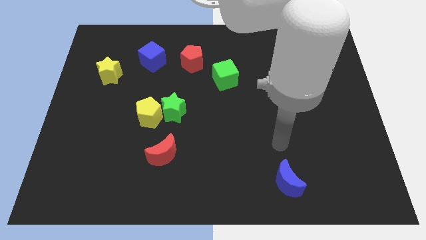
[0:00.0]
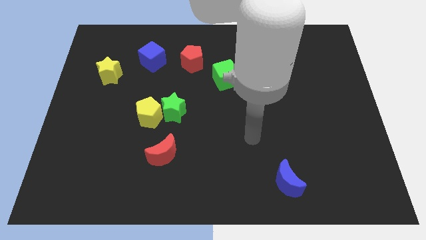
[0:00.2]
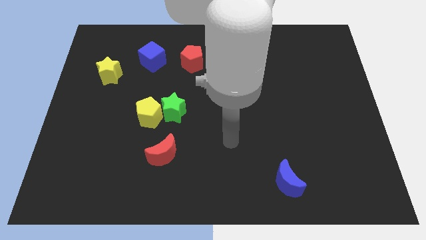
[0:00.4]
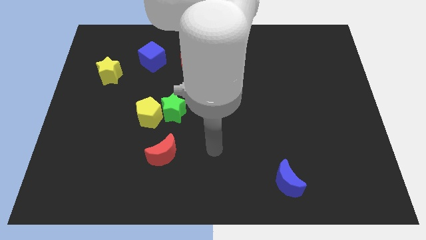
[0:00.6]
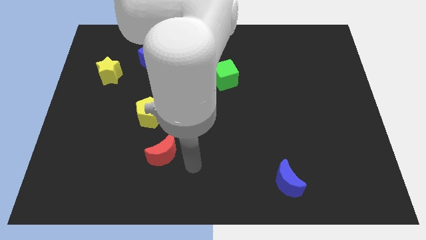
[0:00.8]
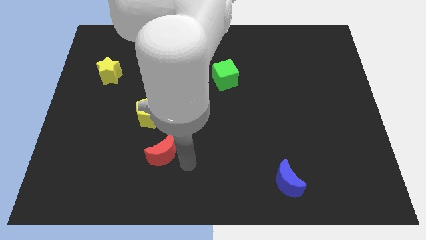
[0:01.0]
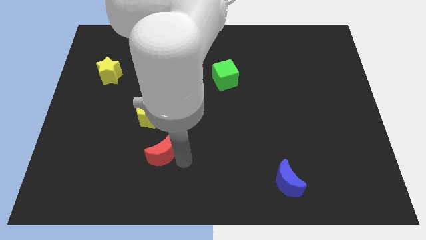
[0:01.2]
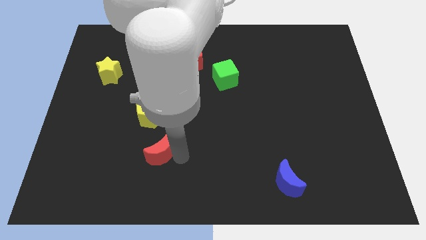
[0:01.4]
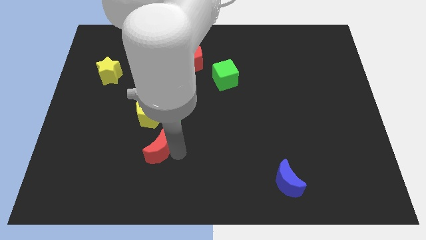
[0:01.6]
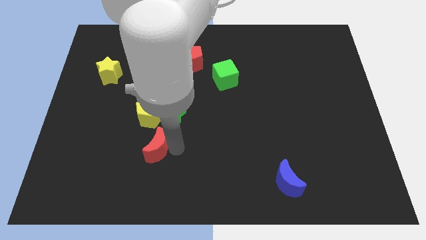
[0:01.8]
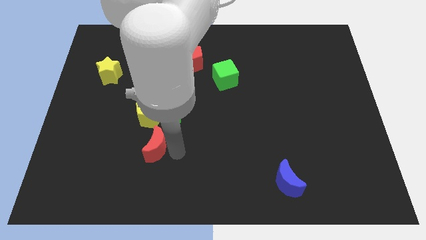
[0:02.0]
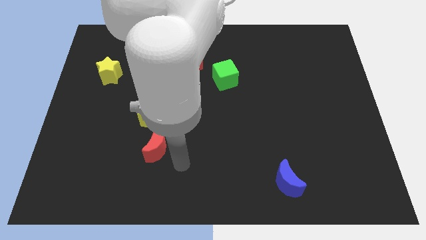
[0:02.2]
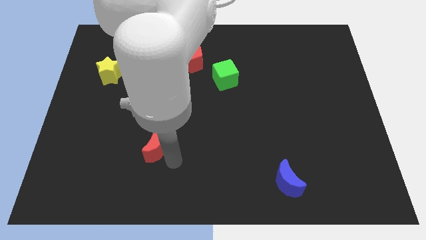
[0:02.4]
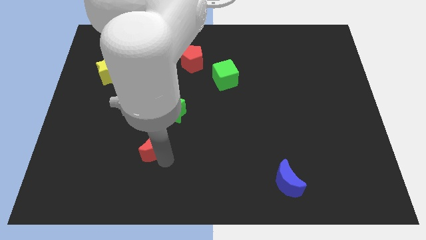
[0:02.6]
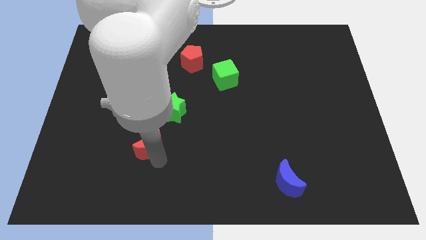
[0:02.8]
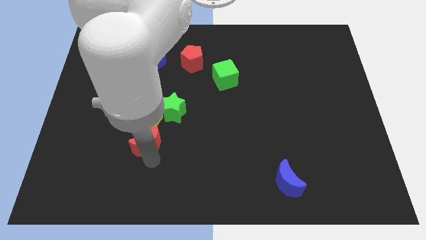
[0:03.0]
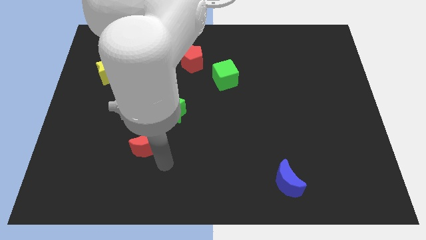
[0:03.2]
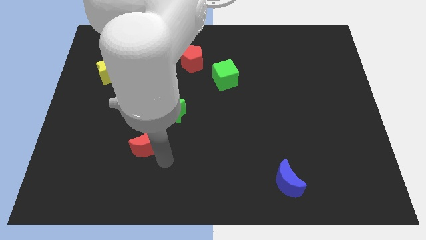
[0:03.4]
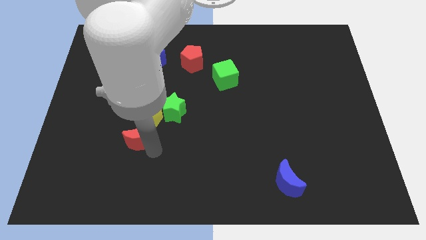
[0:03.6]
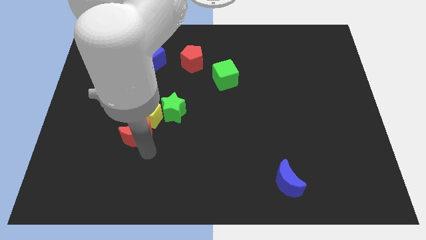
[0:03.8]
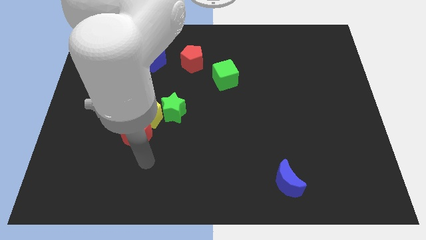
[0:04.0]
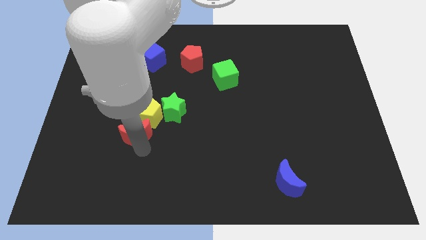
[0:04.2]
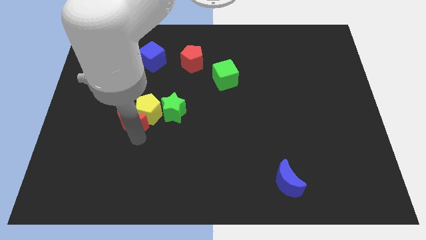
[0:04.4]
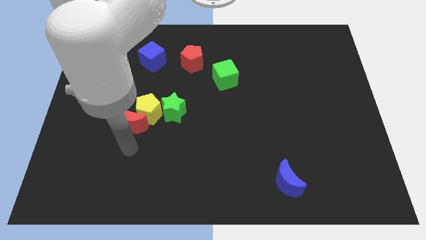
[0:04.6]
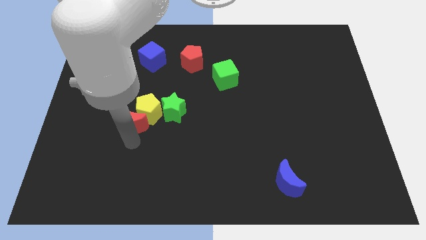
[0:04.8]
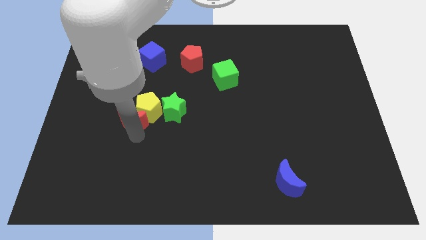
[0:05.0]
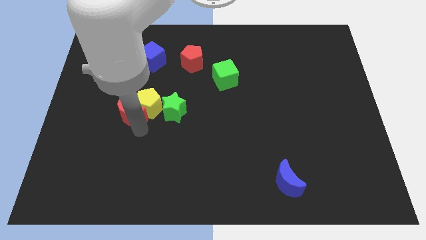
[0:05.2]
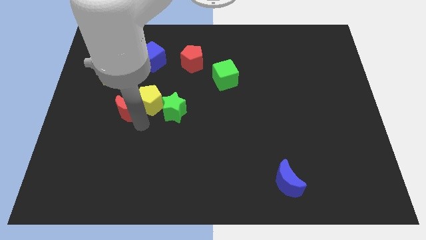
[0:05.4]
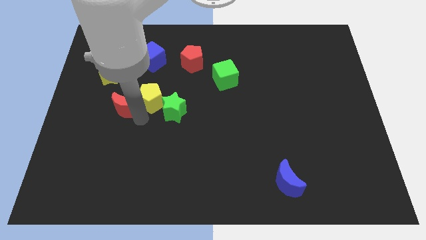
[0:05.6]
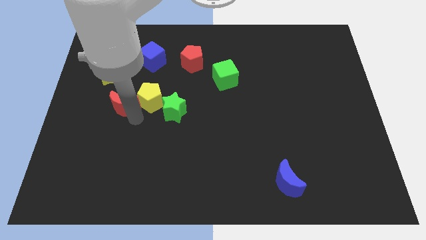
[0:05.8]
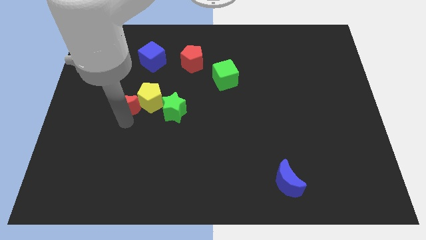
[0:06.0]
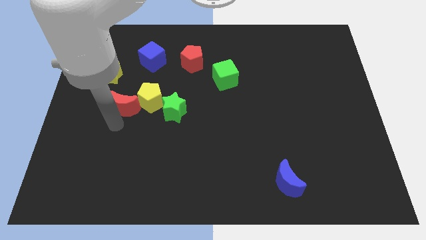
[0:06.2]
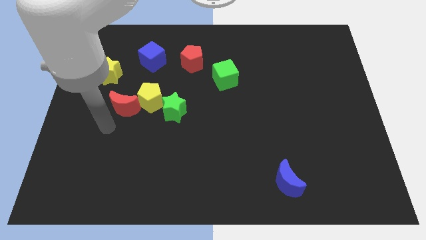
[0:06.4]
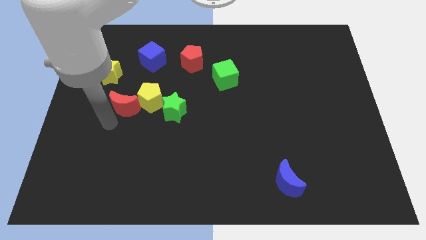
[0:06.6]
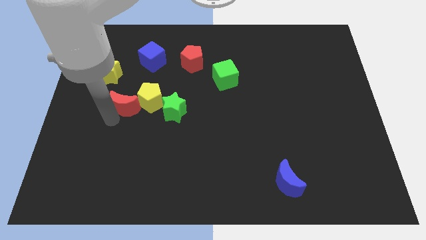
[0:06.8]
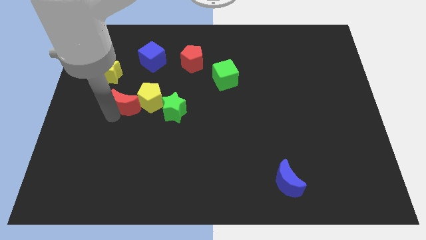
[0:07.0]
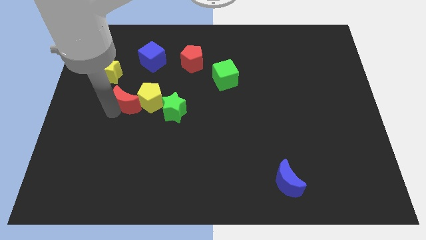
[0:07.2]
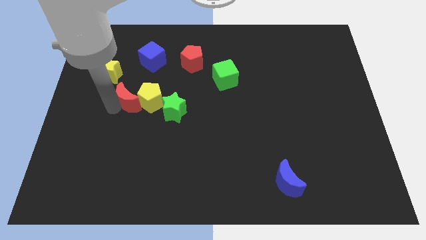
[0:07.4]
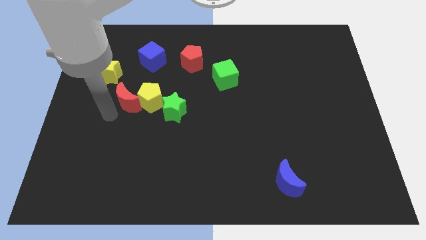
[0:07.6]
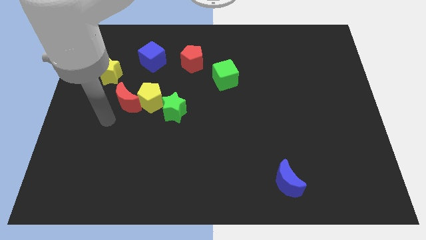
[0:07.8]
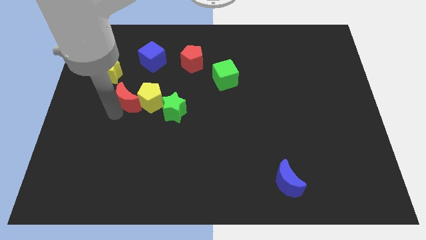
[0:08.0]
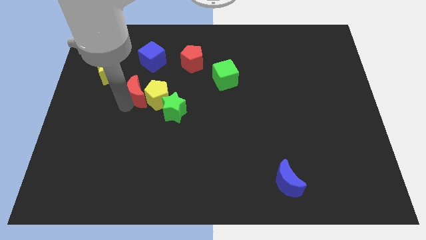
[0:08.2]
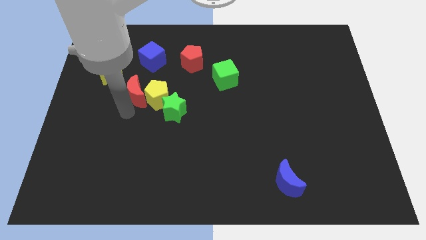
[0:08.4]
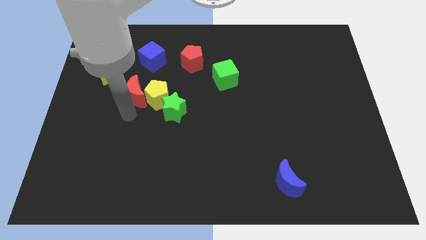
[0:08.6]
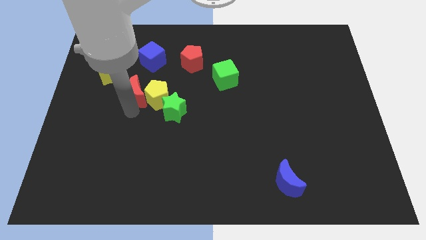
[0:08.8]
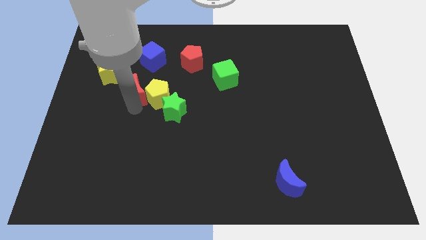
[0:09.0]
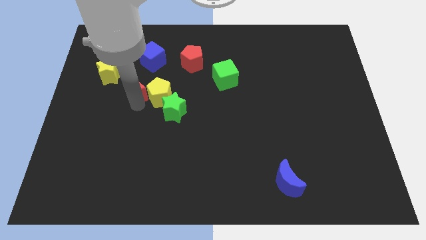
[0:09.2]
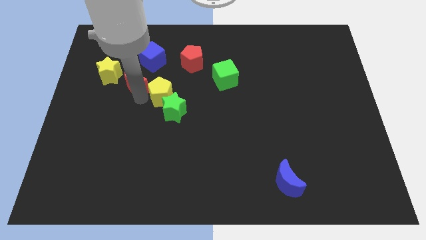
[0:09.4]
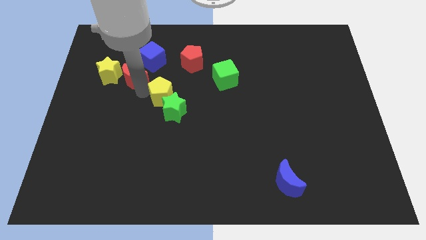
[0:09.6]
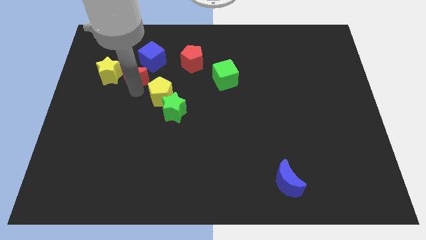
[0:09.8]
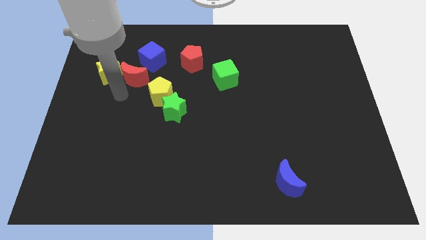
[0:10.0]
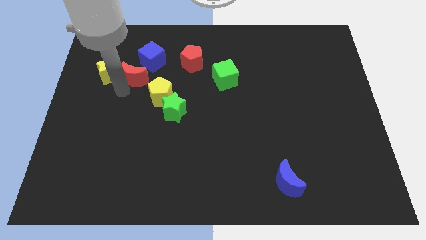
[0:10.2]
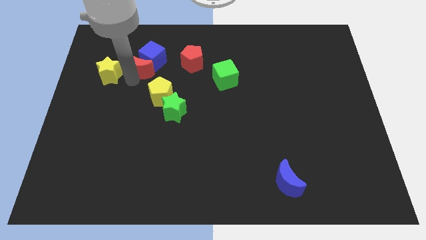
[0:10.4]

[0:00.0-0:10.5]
slide the red moon next to the blue cube

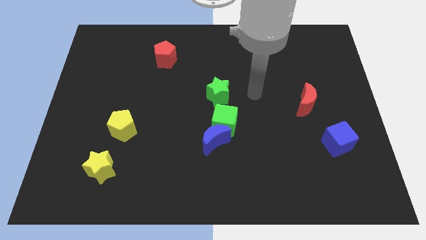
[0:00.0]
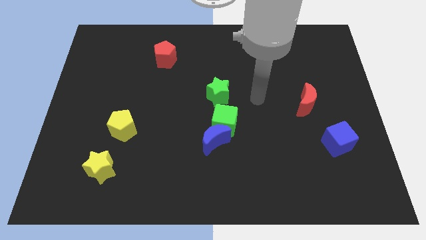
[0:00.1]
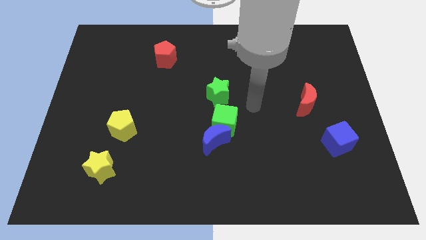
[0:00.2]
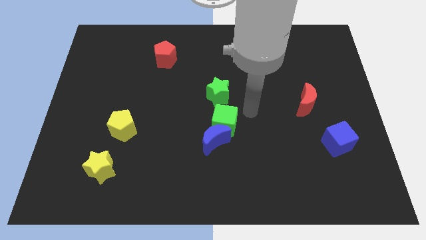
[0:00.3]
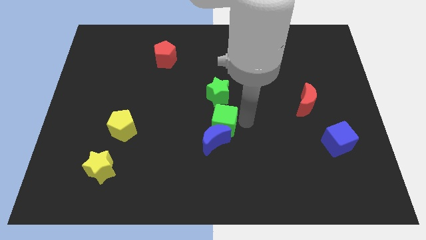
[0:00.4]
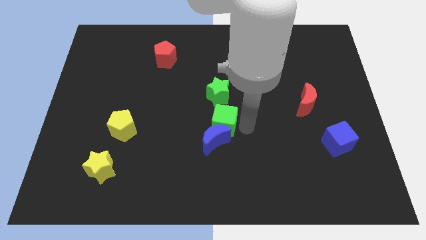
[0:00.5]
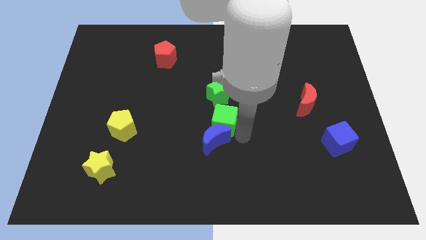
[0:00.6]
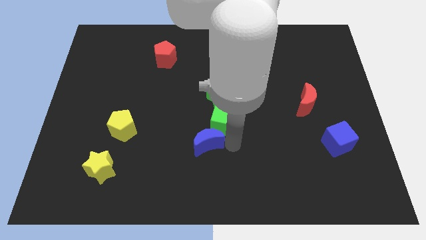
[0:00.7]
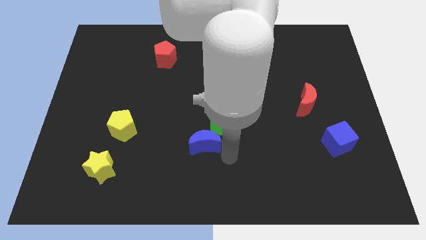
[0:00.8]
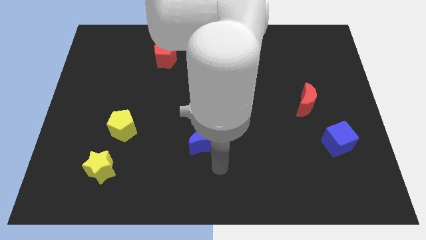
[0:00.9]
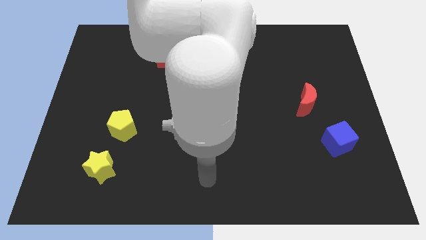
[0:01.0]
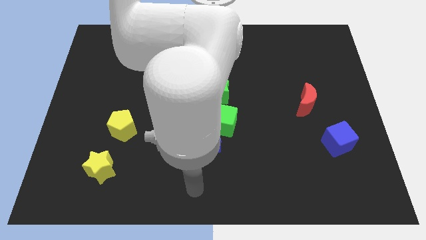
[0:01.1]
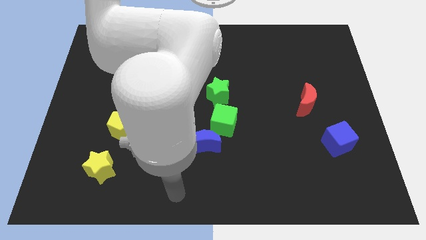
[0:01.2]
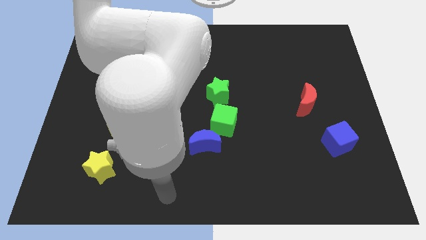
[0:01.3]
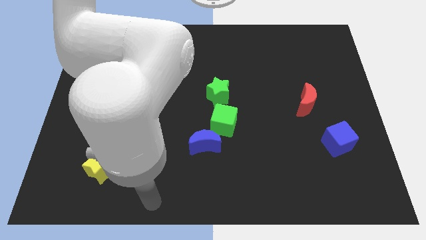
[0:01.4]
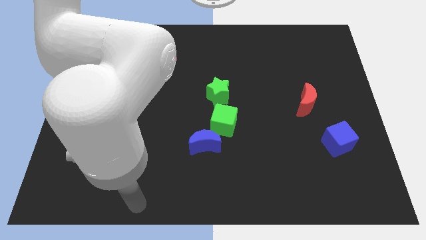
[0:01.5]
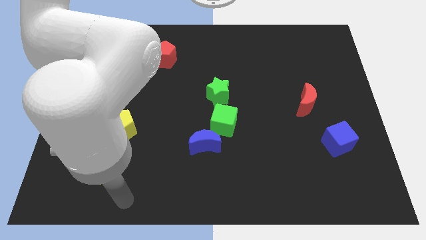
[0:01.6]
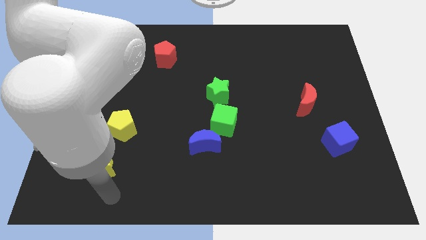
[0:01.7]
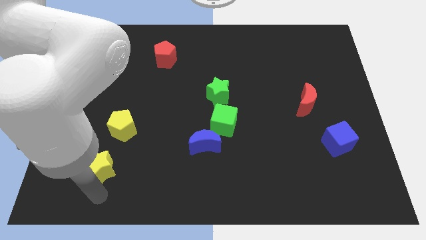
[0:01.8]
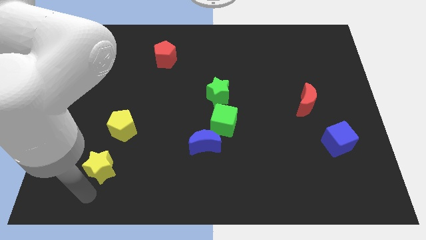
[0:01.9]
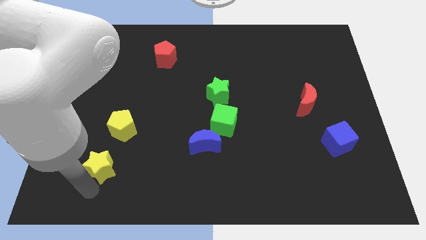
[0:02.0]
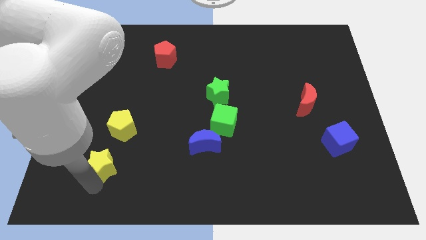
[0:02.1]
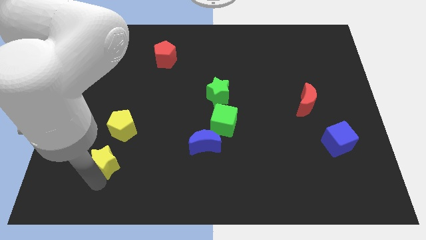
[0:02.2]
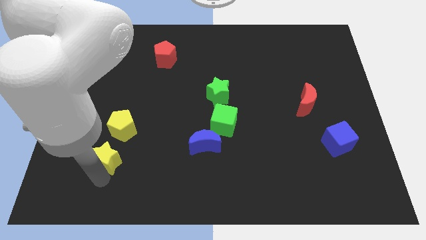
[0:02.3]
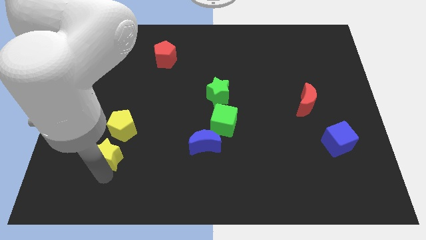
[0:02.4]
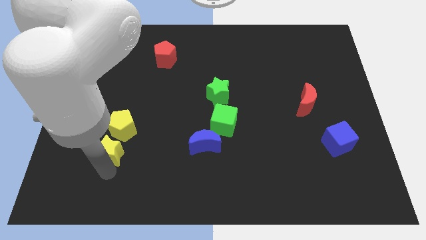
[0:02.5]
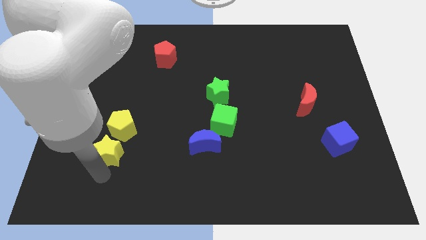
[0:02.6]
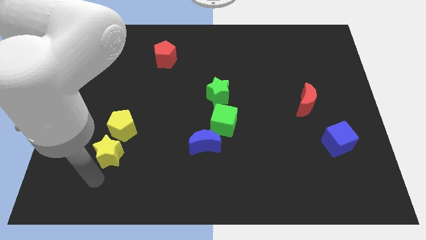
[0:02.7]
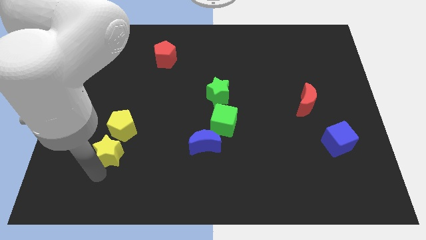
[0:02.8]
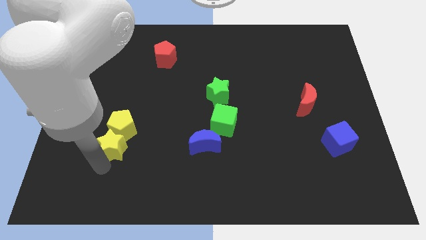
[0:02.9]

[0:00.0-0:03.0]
slide the yellow star close to the yellow pentagon
